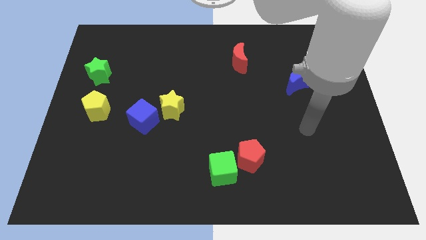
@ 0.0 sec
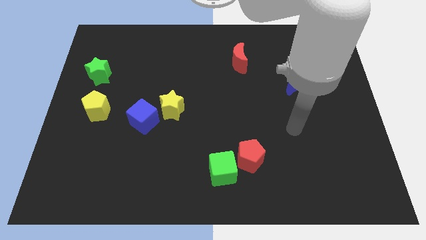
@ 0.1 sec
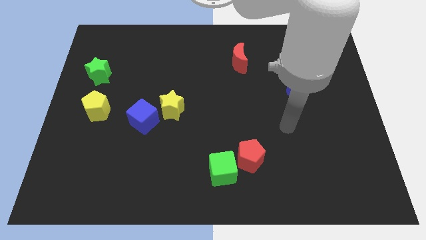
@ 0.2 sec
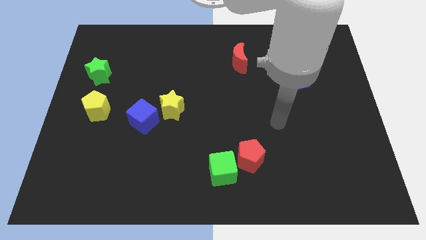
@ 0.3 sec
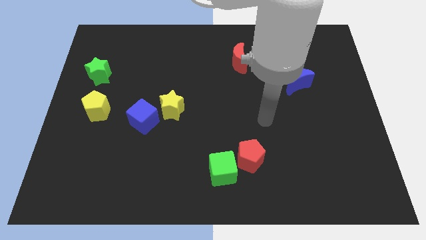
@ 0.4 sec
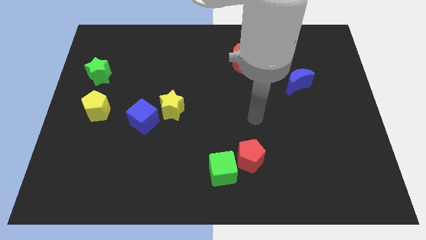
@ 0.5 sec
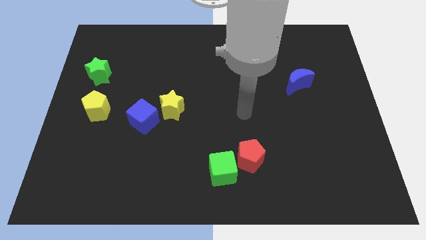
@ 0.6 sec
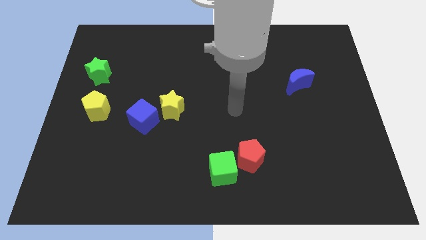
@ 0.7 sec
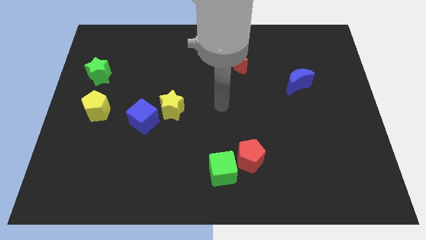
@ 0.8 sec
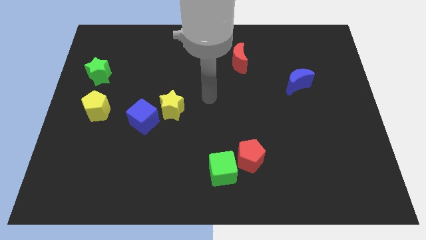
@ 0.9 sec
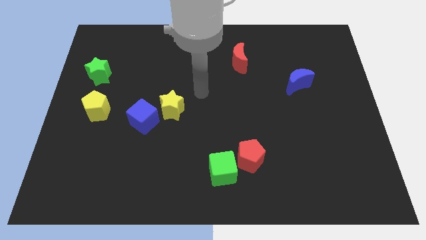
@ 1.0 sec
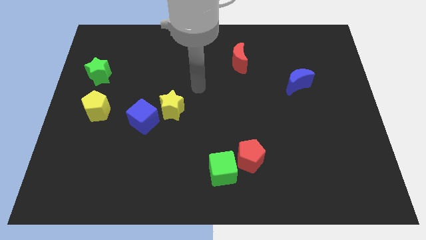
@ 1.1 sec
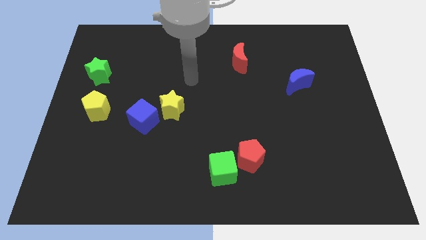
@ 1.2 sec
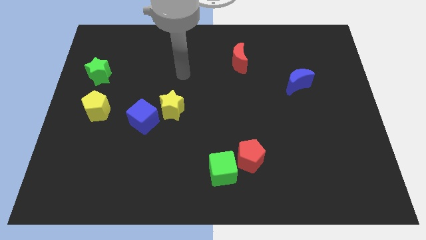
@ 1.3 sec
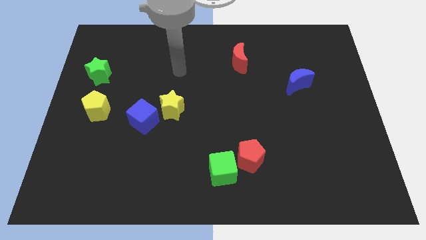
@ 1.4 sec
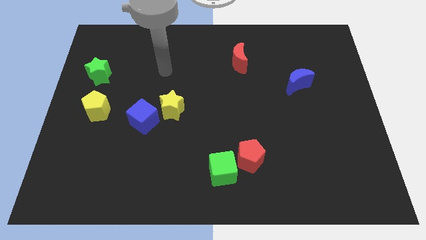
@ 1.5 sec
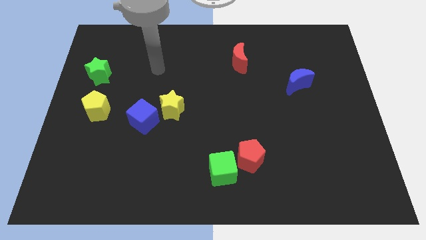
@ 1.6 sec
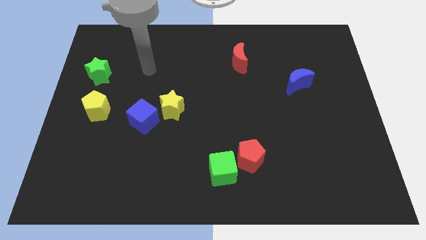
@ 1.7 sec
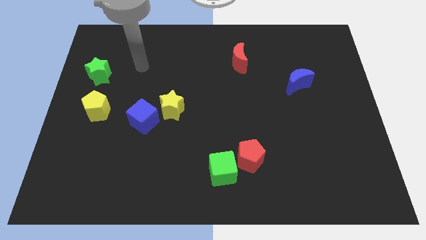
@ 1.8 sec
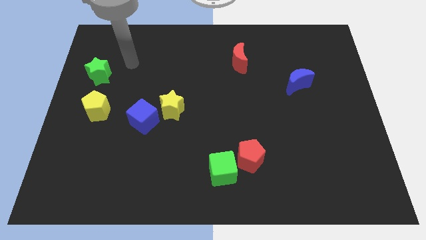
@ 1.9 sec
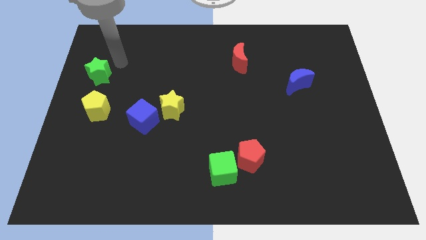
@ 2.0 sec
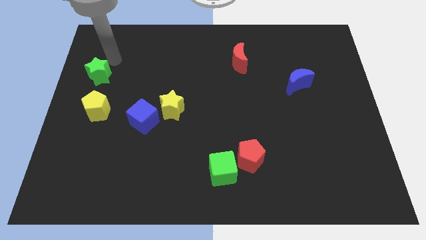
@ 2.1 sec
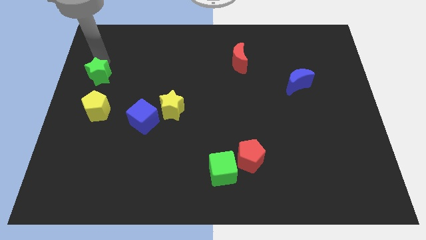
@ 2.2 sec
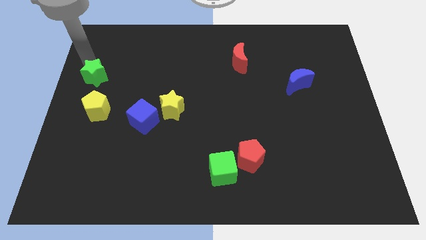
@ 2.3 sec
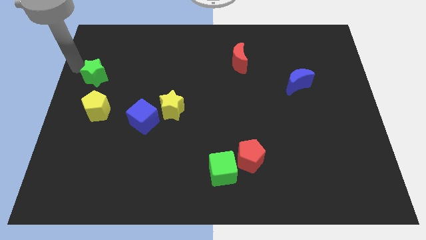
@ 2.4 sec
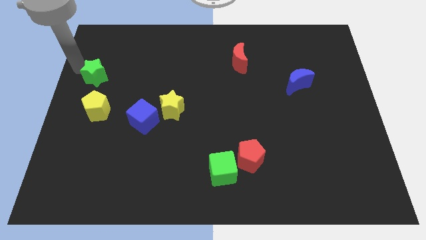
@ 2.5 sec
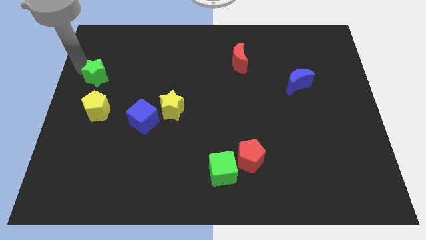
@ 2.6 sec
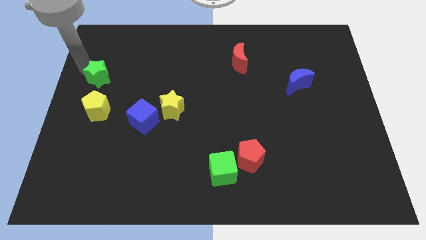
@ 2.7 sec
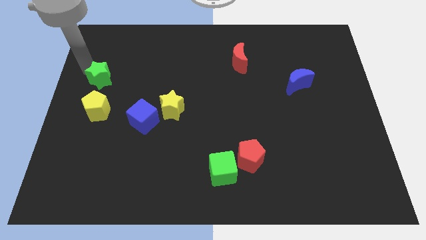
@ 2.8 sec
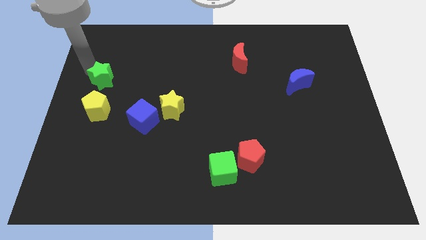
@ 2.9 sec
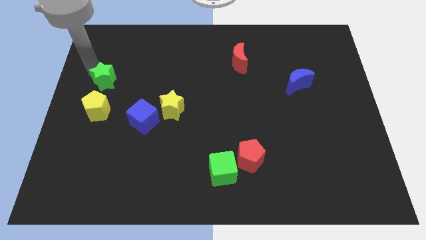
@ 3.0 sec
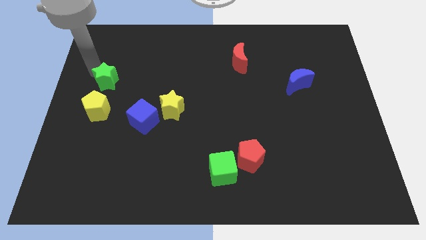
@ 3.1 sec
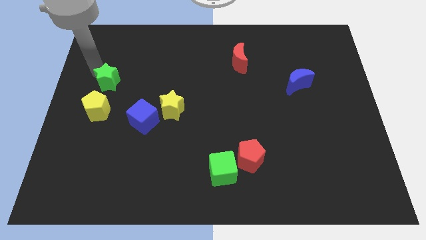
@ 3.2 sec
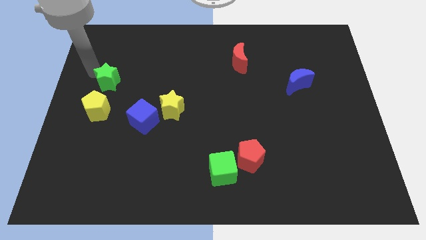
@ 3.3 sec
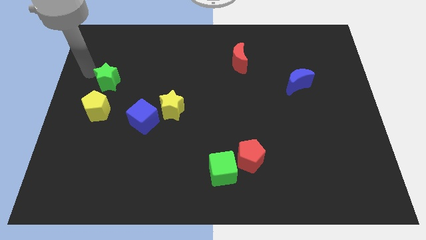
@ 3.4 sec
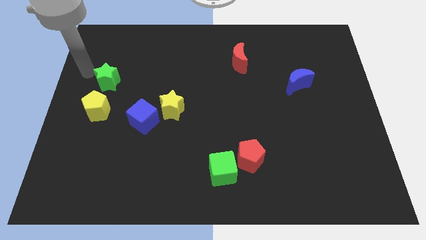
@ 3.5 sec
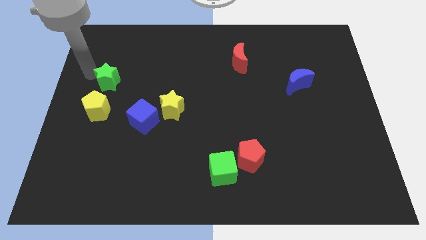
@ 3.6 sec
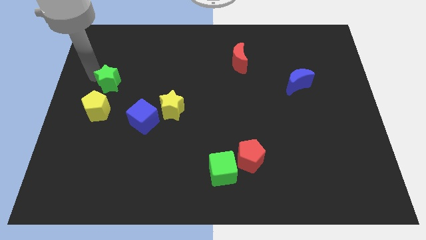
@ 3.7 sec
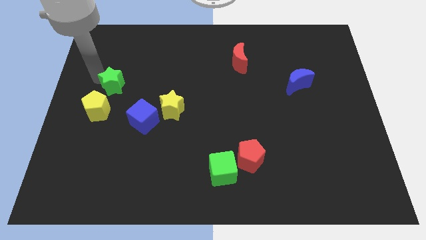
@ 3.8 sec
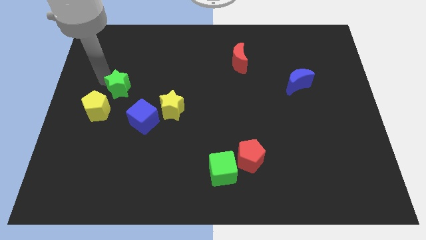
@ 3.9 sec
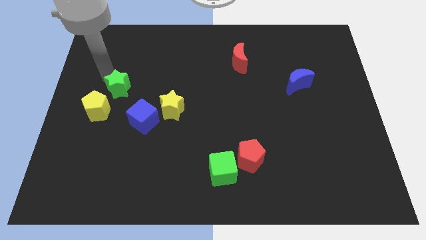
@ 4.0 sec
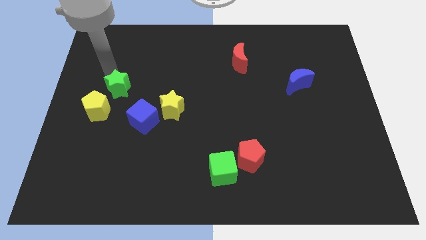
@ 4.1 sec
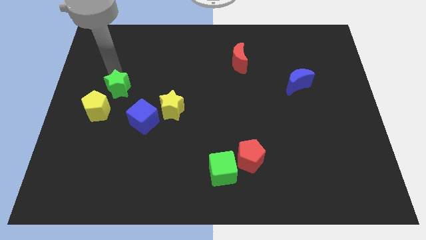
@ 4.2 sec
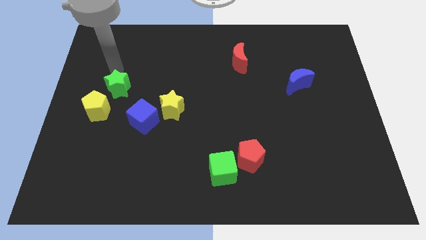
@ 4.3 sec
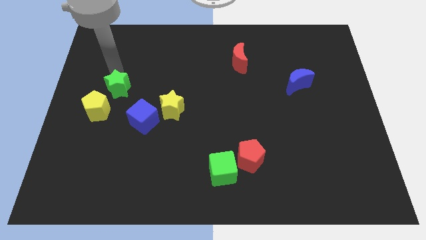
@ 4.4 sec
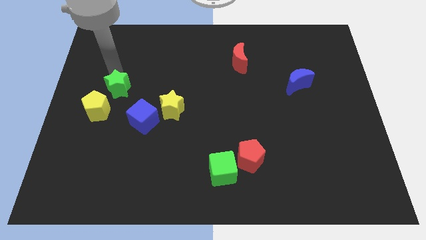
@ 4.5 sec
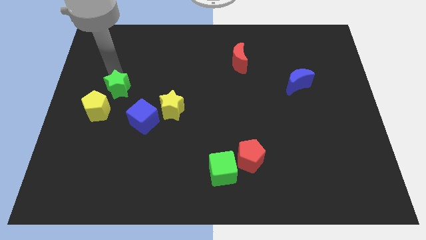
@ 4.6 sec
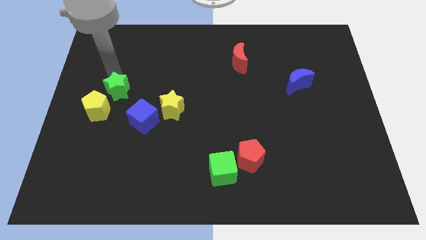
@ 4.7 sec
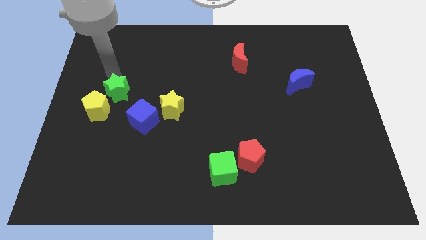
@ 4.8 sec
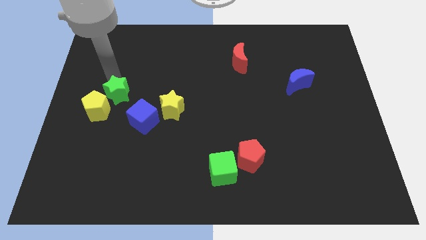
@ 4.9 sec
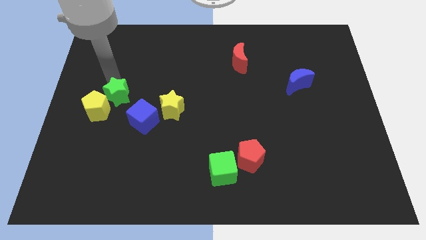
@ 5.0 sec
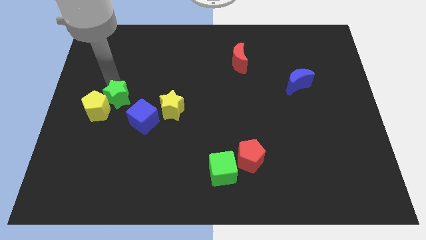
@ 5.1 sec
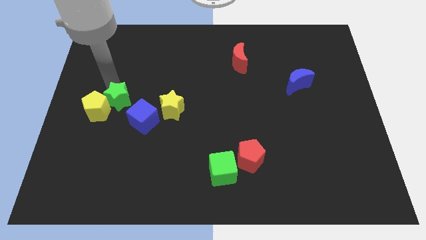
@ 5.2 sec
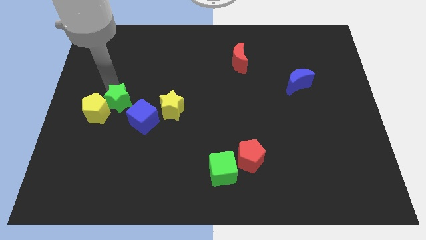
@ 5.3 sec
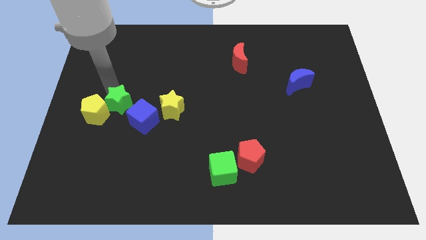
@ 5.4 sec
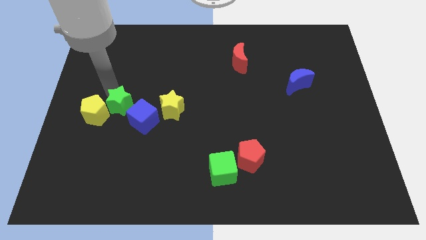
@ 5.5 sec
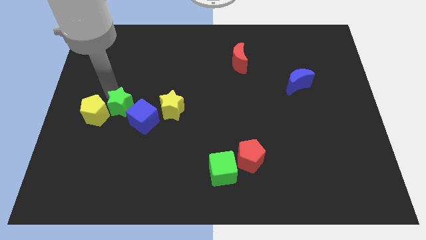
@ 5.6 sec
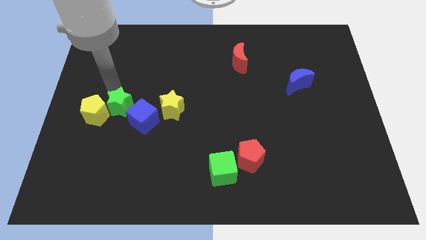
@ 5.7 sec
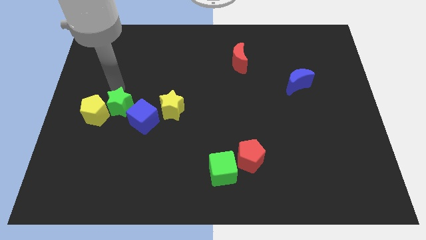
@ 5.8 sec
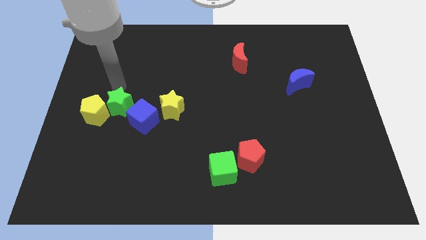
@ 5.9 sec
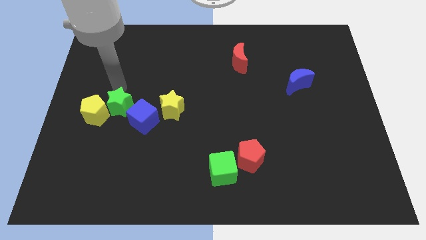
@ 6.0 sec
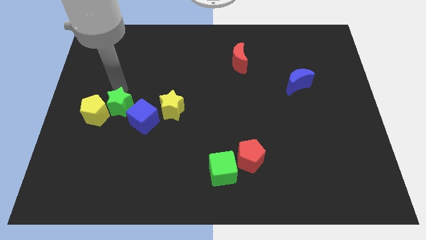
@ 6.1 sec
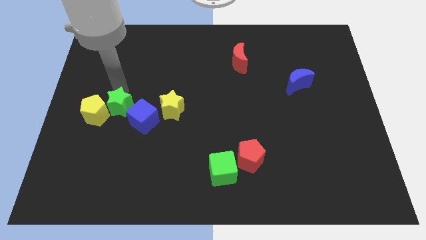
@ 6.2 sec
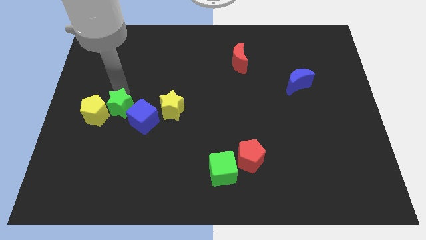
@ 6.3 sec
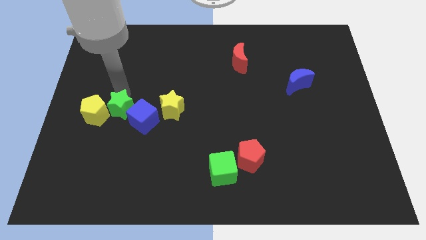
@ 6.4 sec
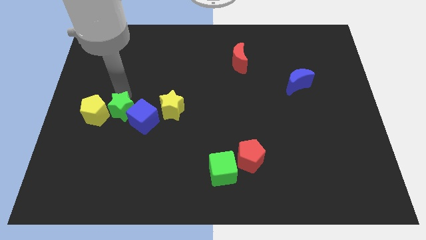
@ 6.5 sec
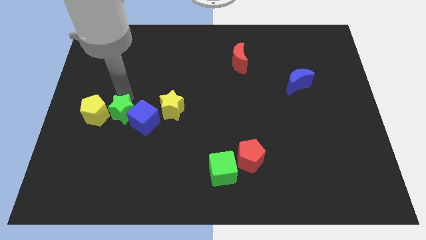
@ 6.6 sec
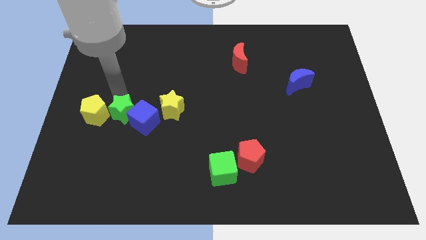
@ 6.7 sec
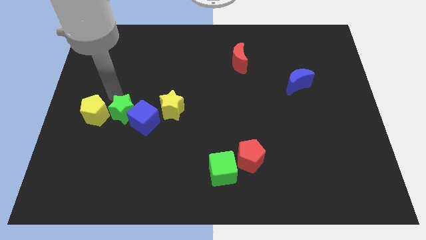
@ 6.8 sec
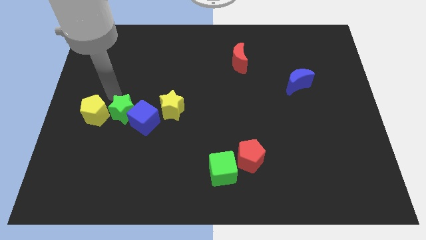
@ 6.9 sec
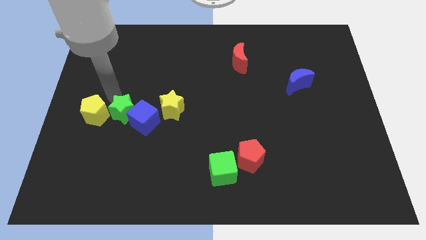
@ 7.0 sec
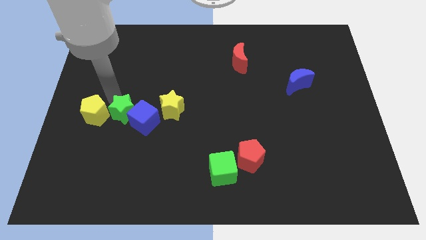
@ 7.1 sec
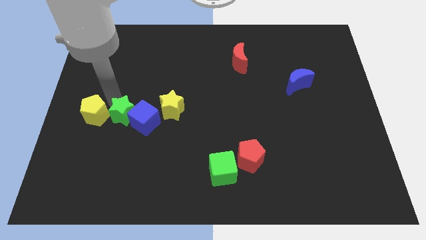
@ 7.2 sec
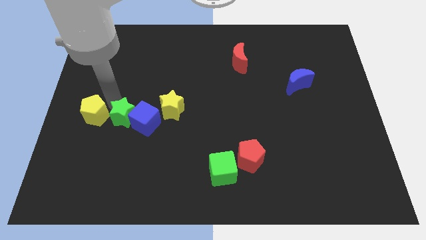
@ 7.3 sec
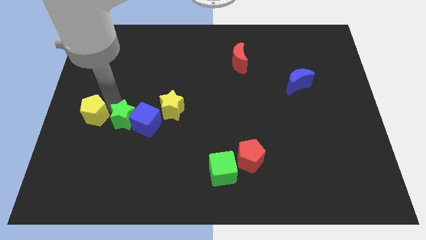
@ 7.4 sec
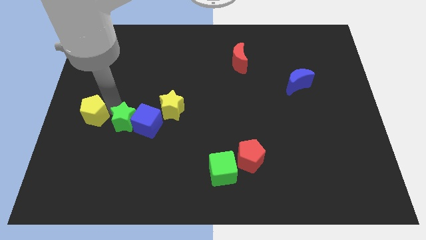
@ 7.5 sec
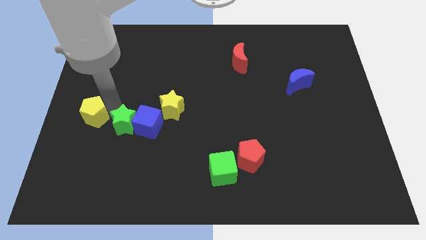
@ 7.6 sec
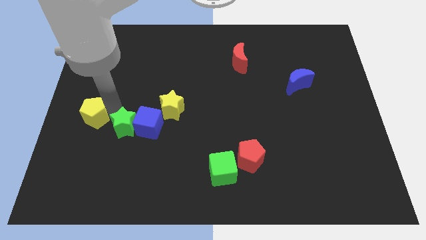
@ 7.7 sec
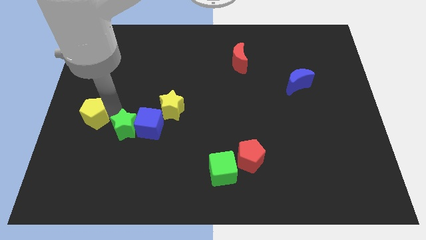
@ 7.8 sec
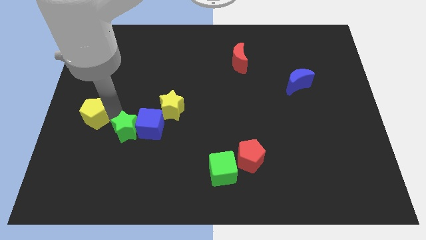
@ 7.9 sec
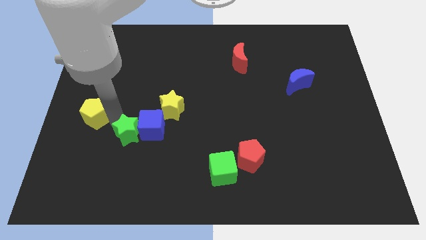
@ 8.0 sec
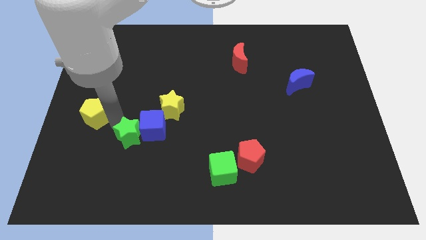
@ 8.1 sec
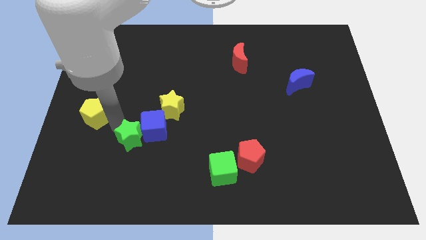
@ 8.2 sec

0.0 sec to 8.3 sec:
slide the green star down and then right
